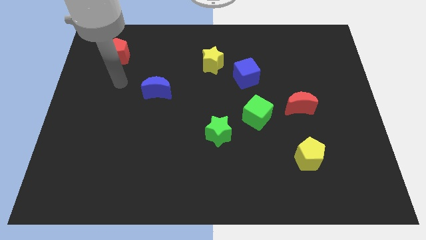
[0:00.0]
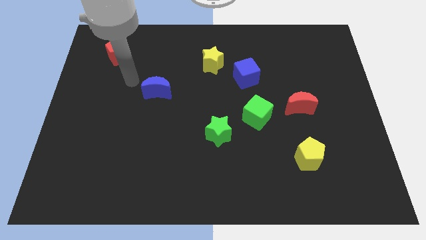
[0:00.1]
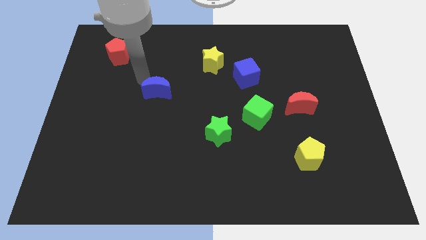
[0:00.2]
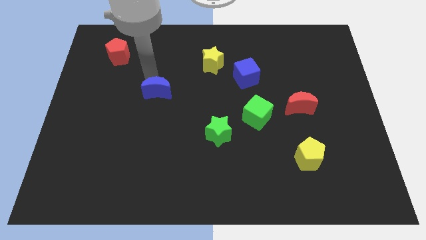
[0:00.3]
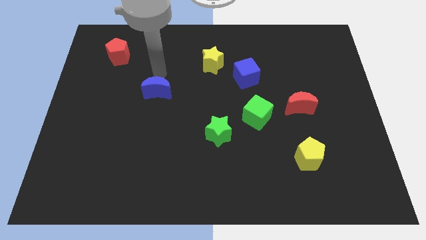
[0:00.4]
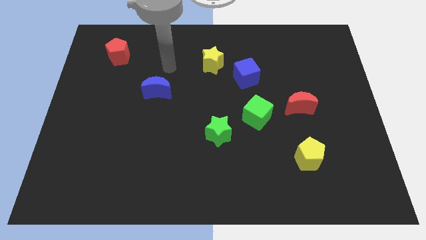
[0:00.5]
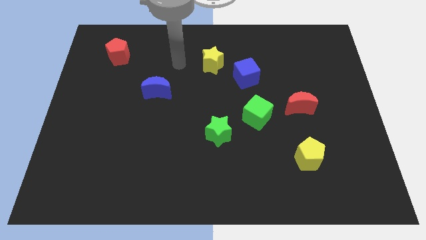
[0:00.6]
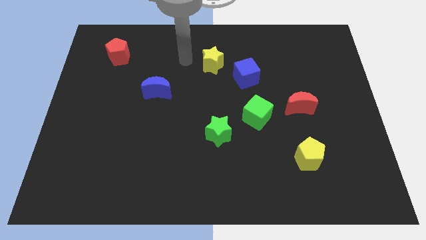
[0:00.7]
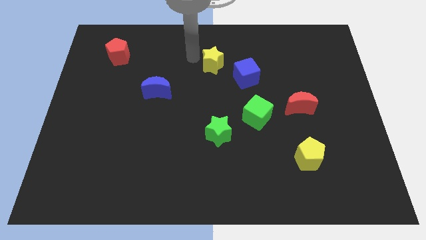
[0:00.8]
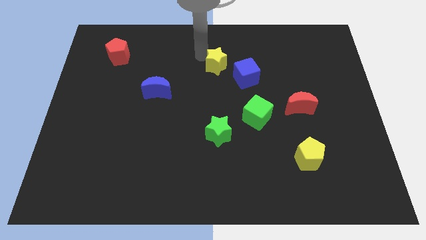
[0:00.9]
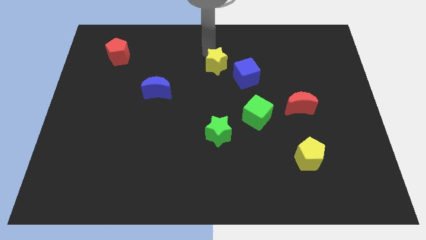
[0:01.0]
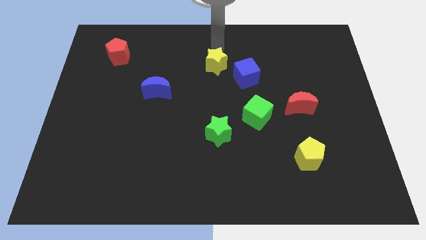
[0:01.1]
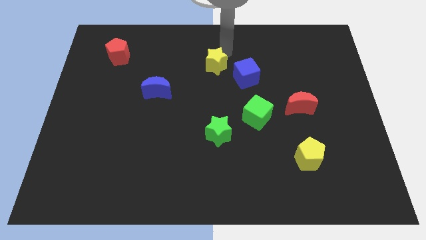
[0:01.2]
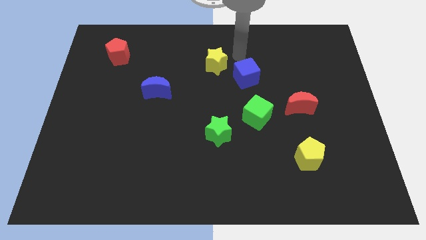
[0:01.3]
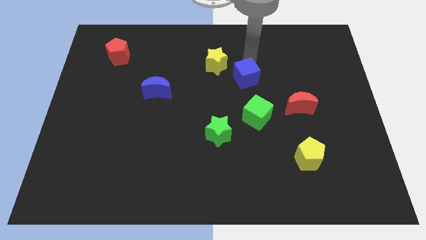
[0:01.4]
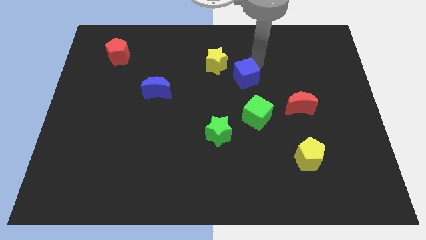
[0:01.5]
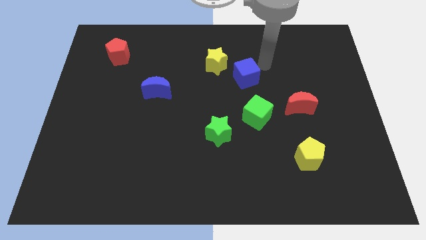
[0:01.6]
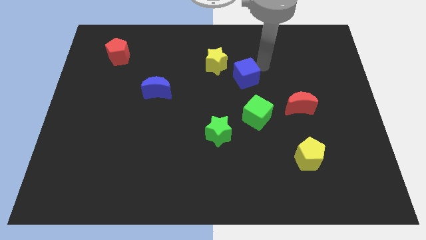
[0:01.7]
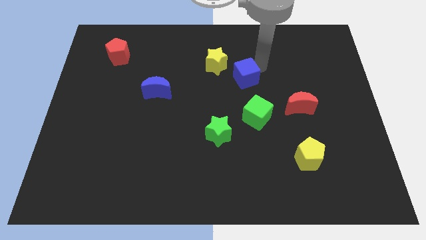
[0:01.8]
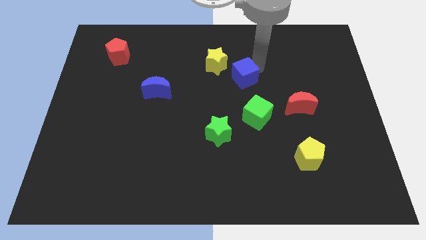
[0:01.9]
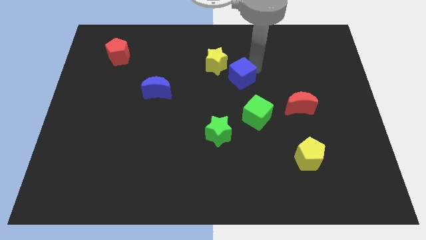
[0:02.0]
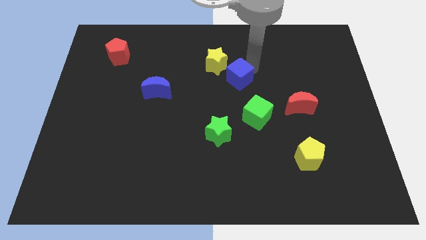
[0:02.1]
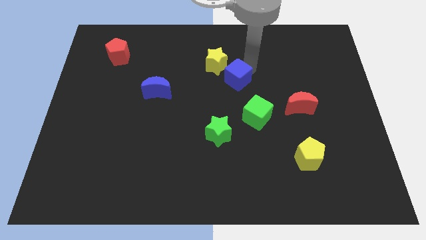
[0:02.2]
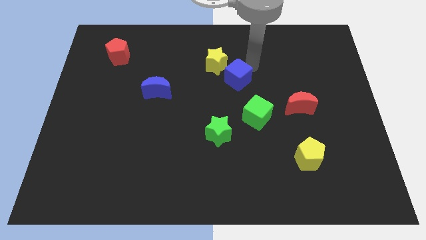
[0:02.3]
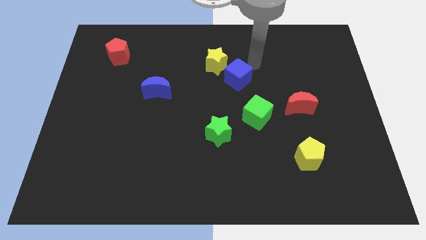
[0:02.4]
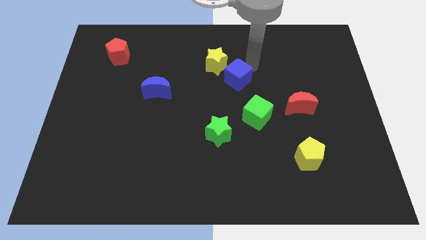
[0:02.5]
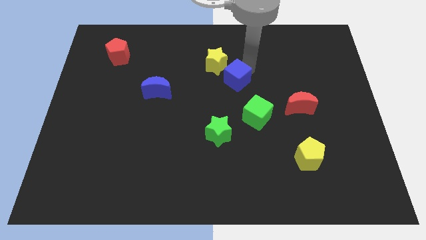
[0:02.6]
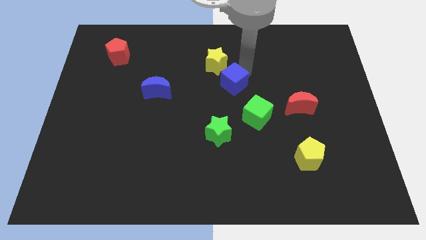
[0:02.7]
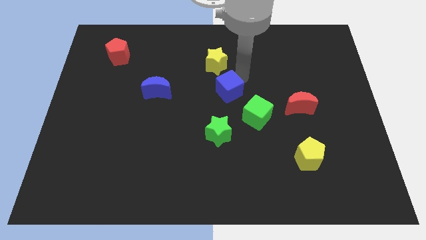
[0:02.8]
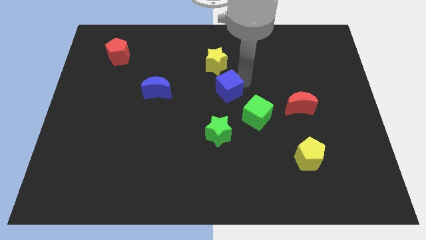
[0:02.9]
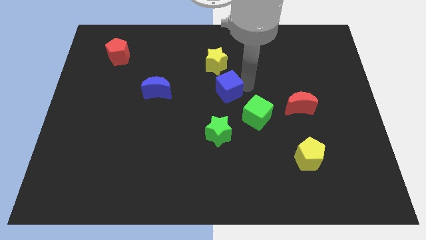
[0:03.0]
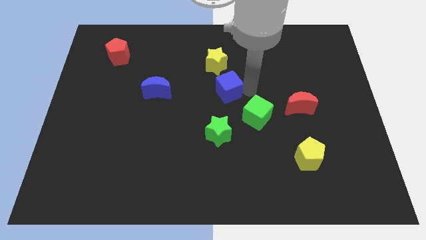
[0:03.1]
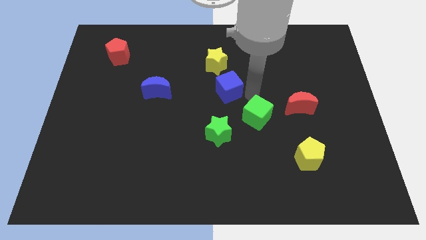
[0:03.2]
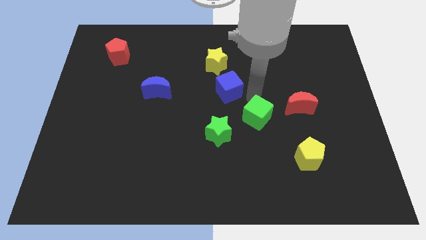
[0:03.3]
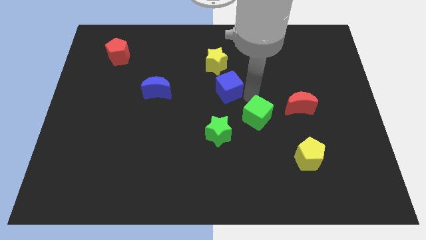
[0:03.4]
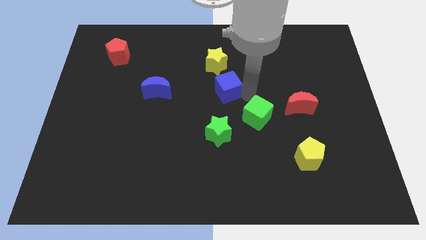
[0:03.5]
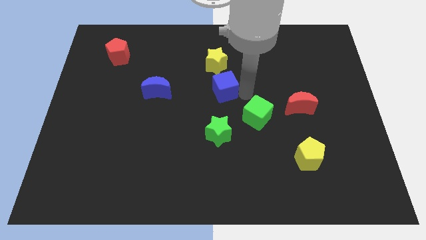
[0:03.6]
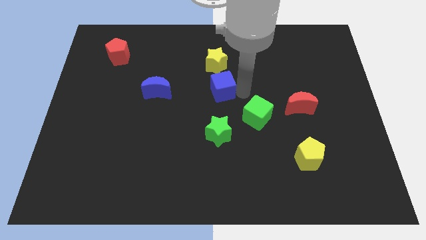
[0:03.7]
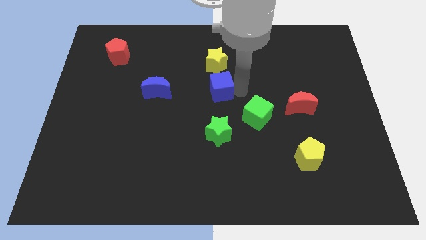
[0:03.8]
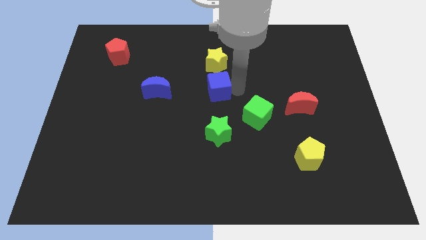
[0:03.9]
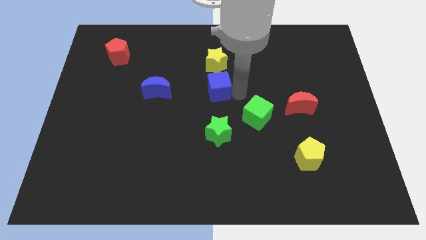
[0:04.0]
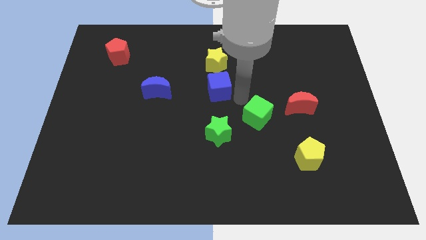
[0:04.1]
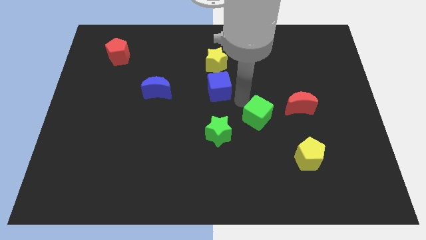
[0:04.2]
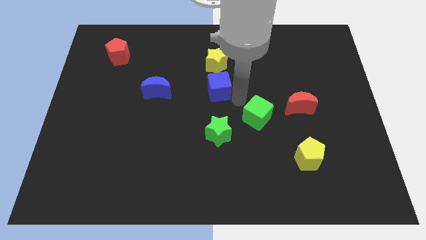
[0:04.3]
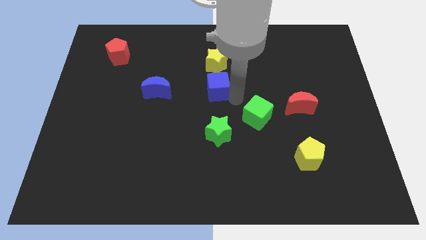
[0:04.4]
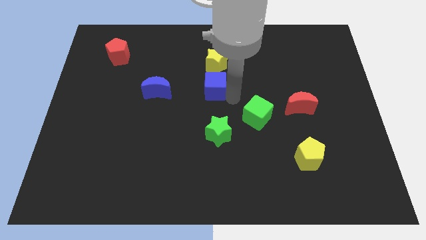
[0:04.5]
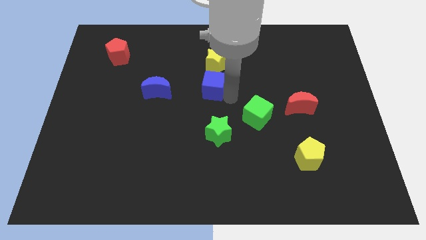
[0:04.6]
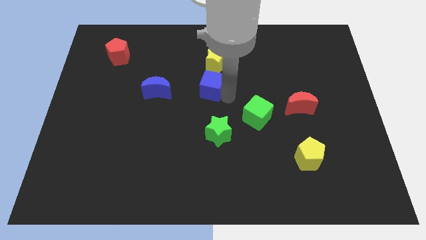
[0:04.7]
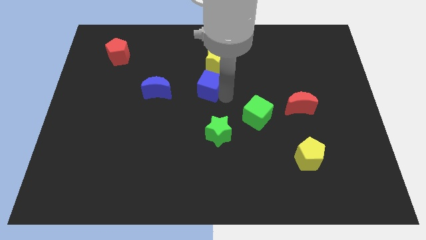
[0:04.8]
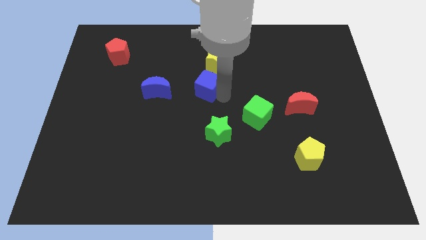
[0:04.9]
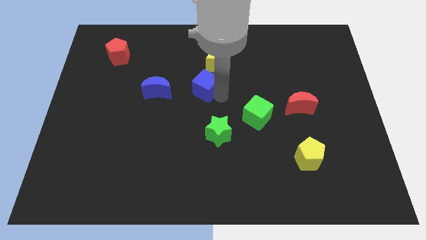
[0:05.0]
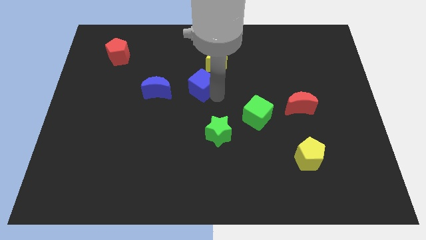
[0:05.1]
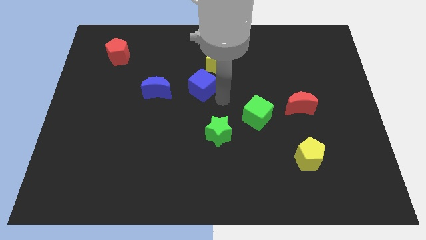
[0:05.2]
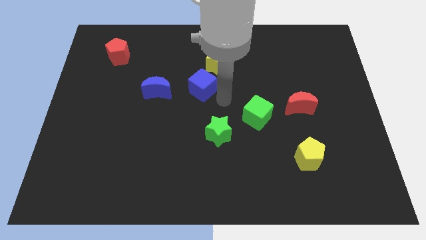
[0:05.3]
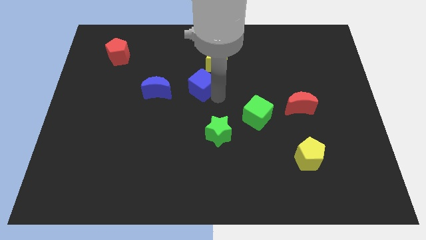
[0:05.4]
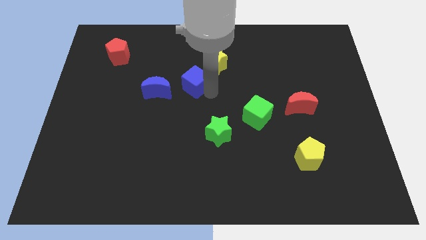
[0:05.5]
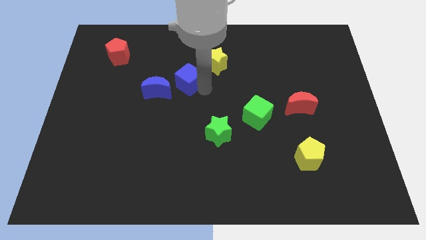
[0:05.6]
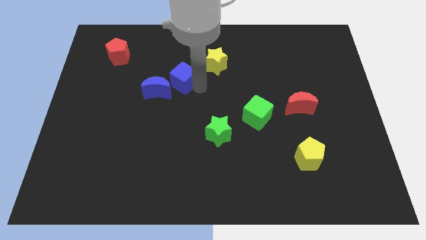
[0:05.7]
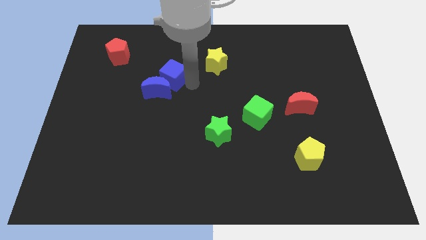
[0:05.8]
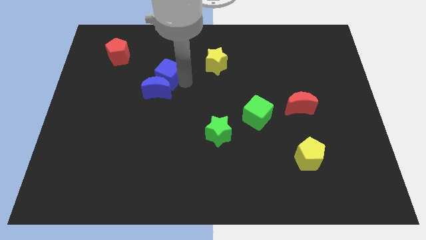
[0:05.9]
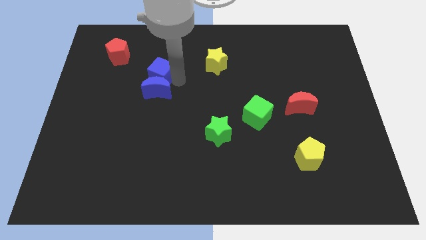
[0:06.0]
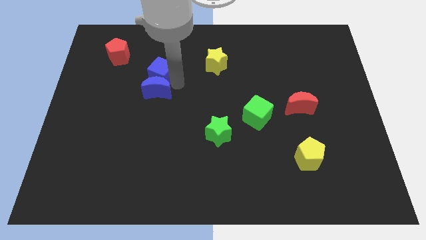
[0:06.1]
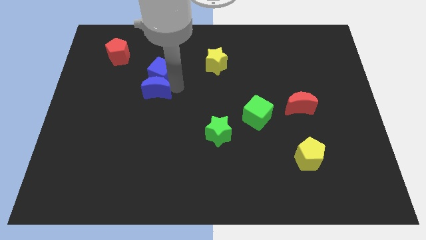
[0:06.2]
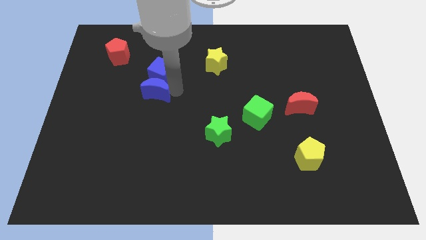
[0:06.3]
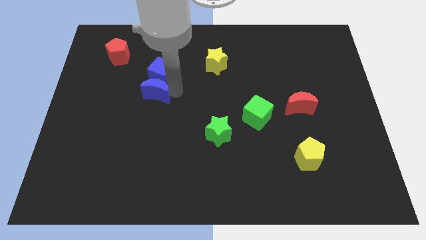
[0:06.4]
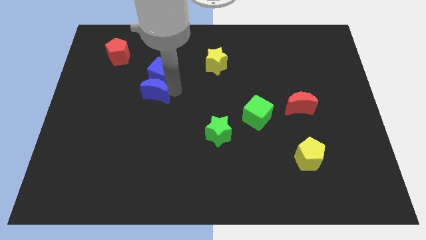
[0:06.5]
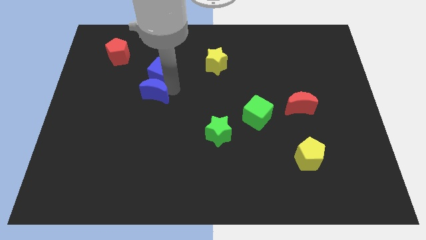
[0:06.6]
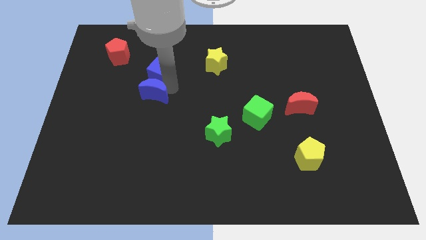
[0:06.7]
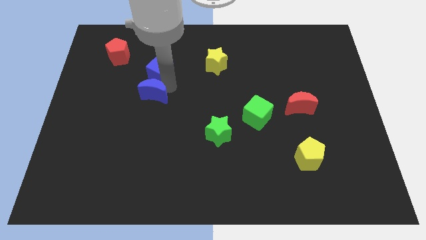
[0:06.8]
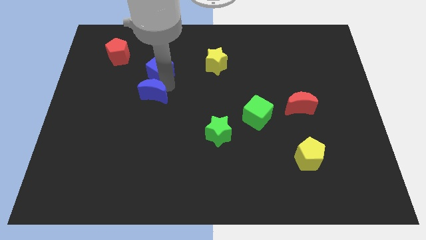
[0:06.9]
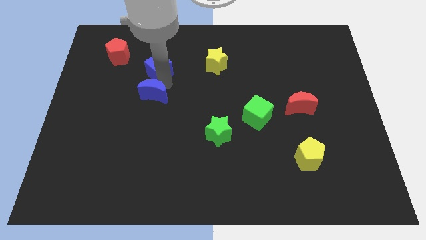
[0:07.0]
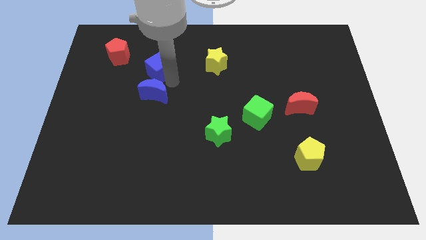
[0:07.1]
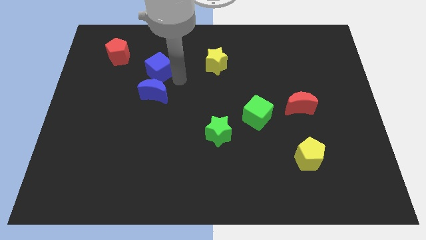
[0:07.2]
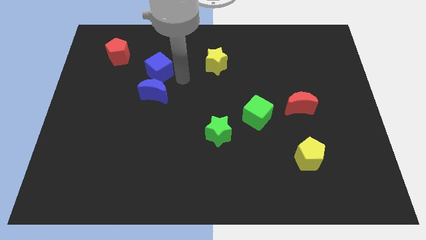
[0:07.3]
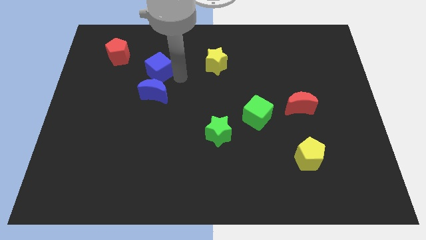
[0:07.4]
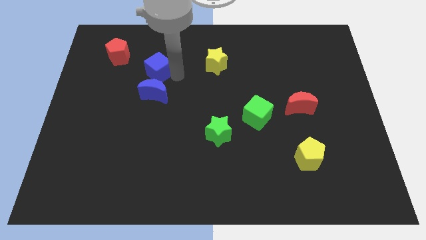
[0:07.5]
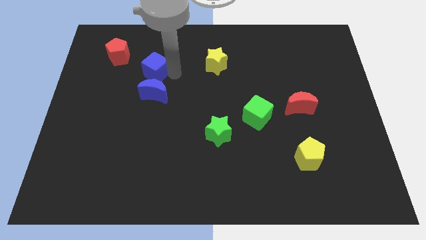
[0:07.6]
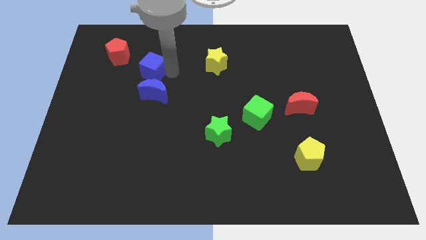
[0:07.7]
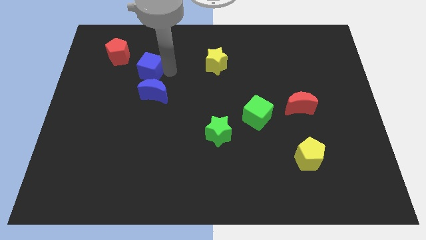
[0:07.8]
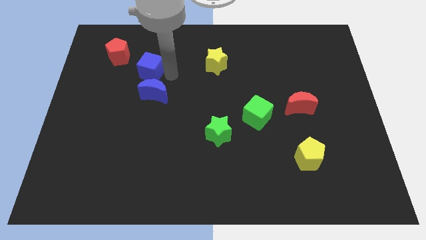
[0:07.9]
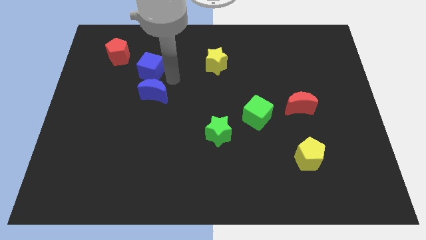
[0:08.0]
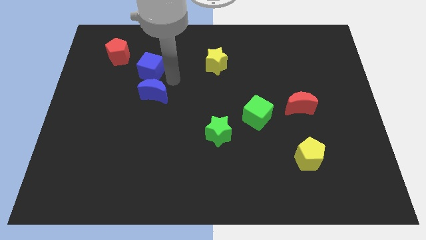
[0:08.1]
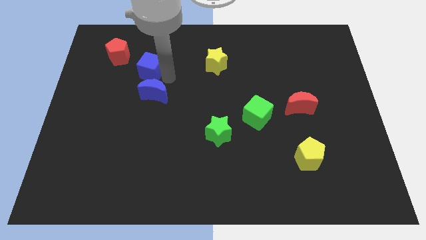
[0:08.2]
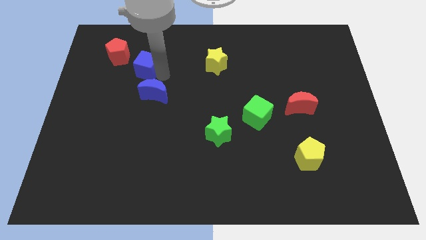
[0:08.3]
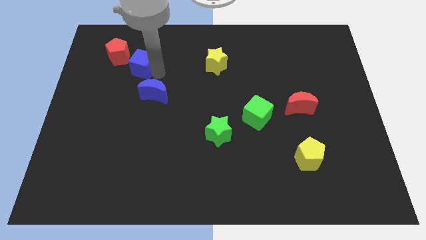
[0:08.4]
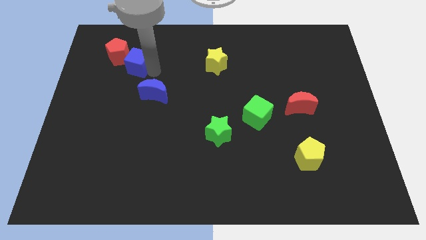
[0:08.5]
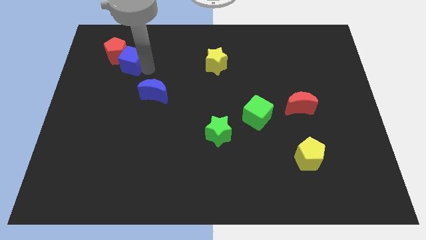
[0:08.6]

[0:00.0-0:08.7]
slide the blue cube close to the red pentagon
